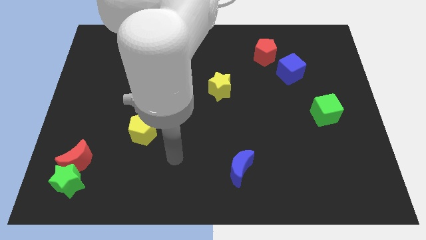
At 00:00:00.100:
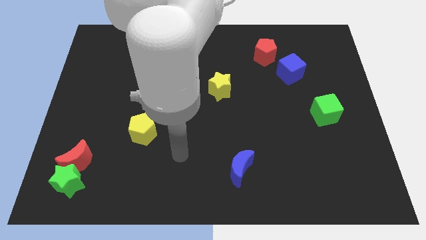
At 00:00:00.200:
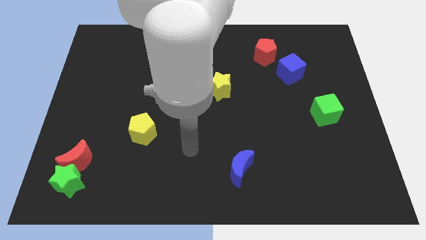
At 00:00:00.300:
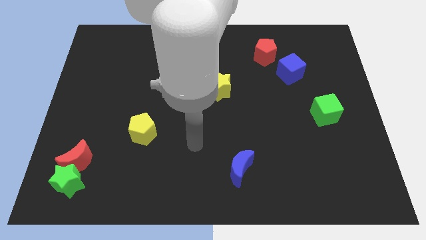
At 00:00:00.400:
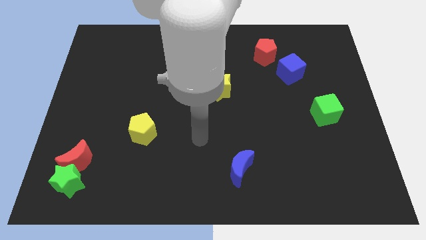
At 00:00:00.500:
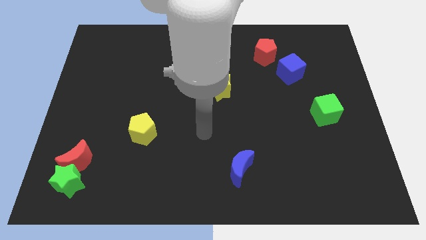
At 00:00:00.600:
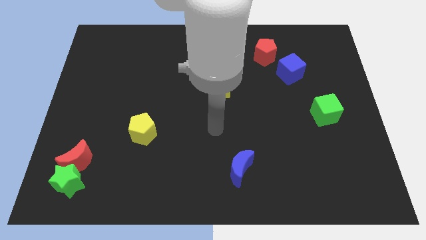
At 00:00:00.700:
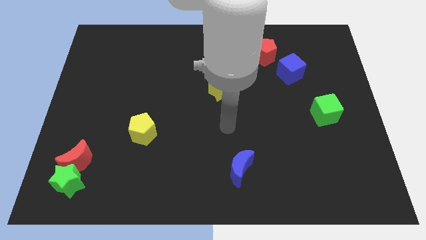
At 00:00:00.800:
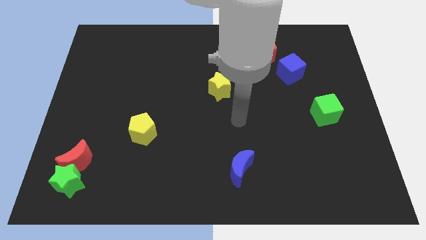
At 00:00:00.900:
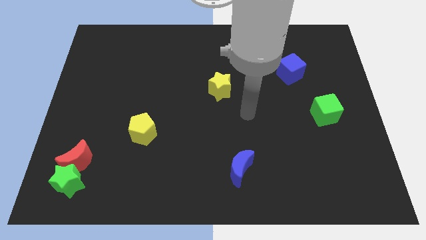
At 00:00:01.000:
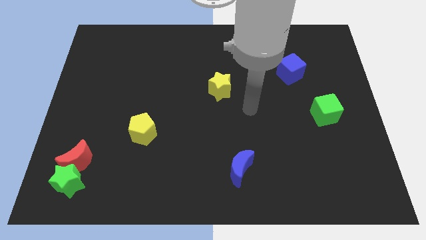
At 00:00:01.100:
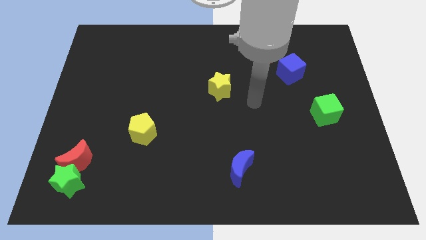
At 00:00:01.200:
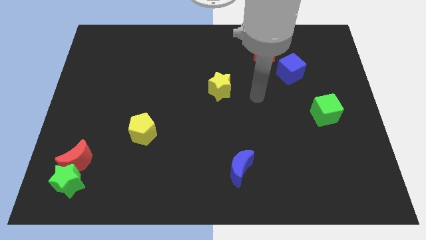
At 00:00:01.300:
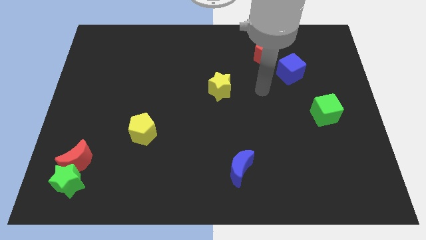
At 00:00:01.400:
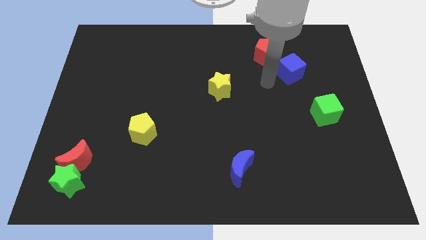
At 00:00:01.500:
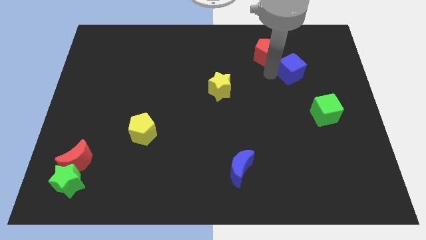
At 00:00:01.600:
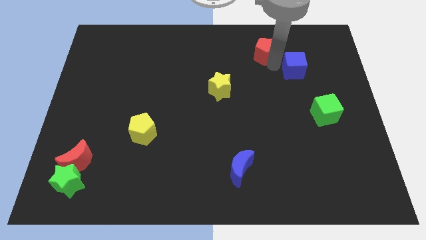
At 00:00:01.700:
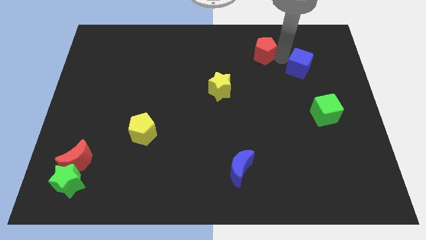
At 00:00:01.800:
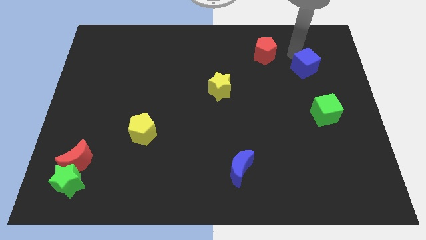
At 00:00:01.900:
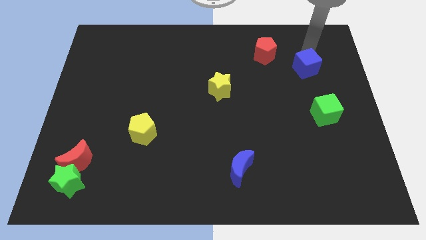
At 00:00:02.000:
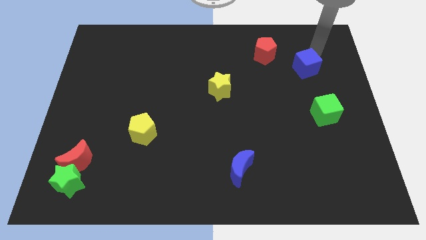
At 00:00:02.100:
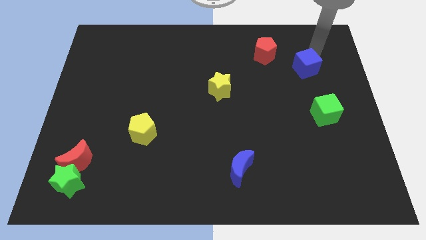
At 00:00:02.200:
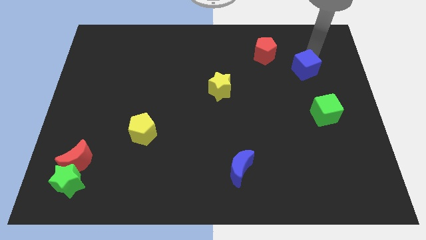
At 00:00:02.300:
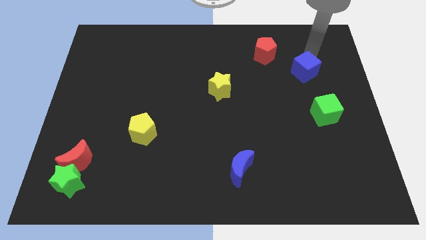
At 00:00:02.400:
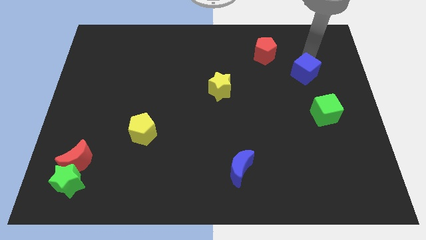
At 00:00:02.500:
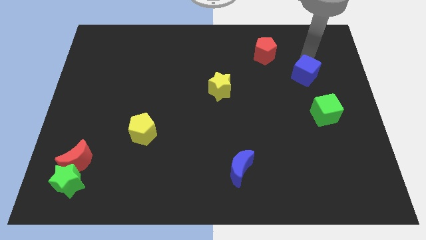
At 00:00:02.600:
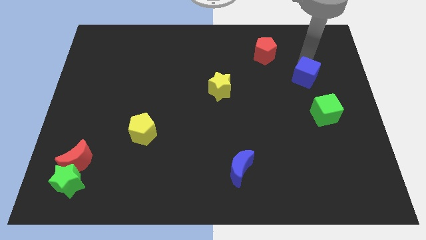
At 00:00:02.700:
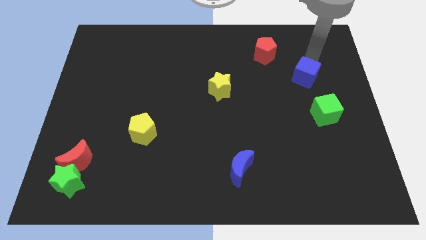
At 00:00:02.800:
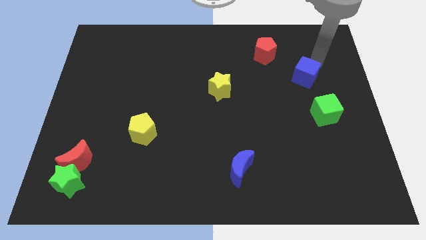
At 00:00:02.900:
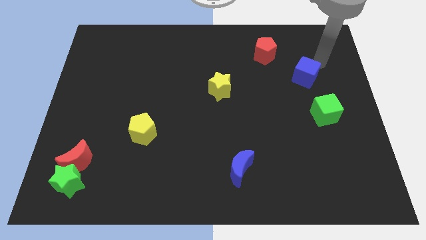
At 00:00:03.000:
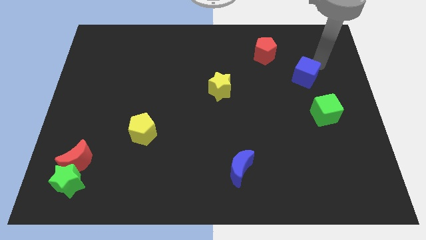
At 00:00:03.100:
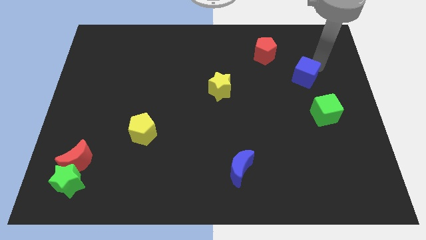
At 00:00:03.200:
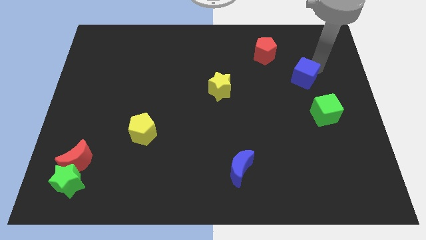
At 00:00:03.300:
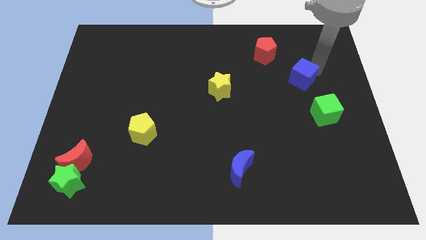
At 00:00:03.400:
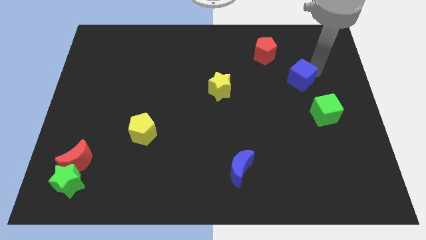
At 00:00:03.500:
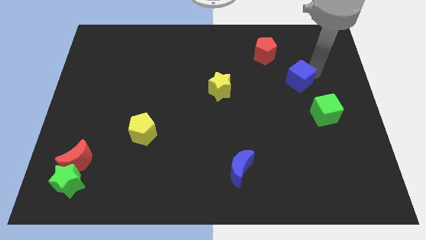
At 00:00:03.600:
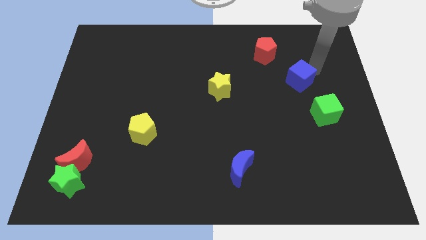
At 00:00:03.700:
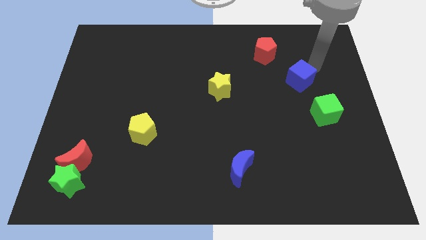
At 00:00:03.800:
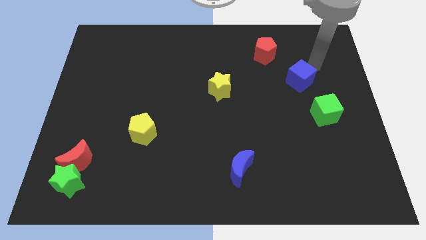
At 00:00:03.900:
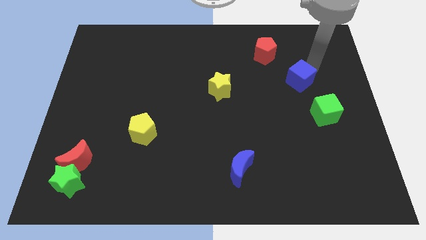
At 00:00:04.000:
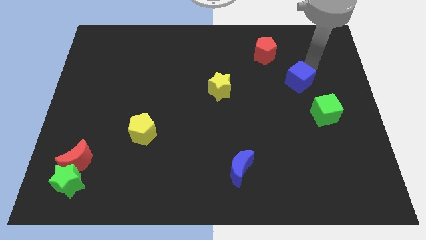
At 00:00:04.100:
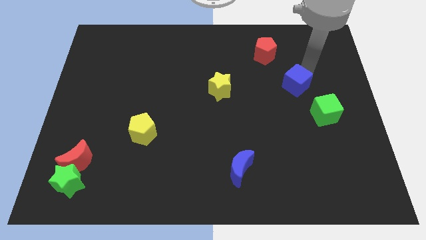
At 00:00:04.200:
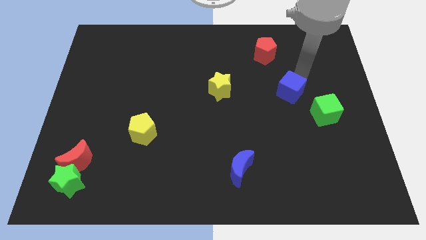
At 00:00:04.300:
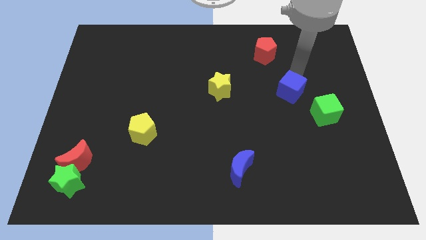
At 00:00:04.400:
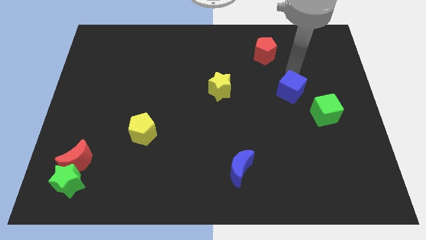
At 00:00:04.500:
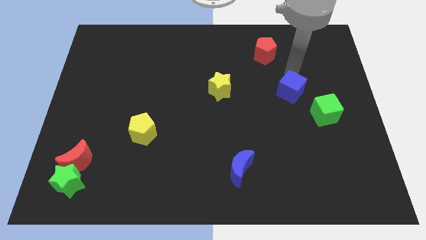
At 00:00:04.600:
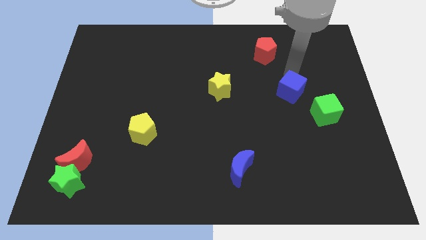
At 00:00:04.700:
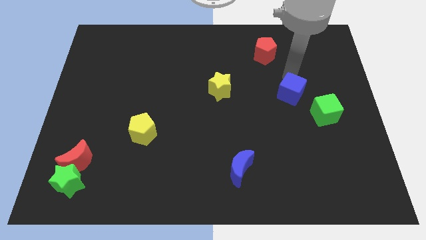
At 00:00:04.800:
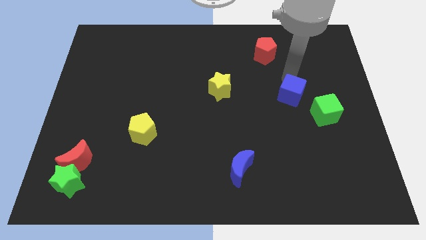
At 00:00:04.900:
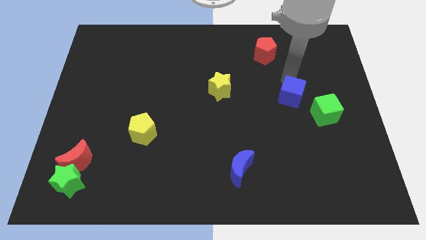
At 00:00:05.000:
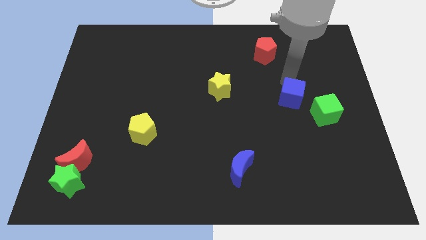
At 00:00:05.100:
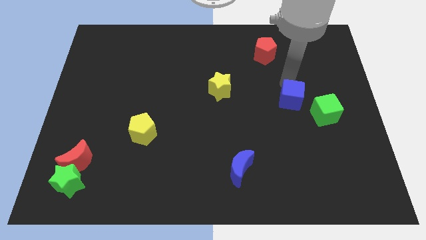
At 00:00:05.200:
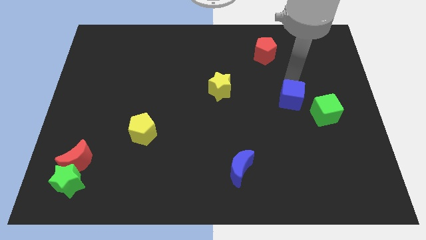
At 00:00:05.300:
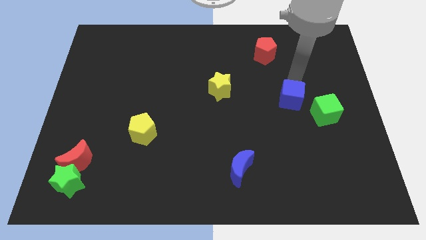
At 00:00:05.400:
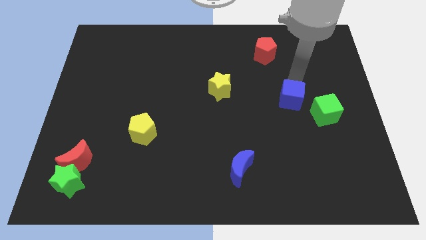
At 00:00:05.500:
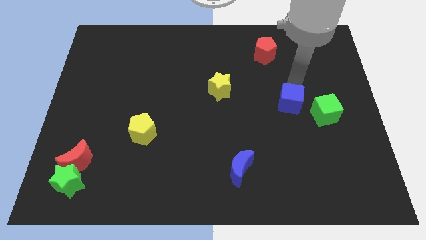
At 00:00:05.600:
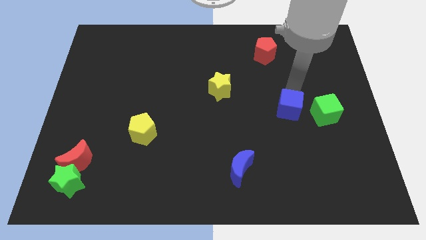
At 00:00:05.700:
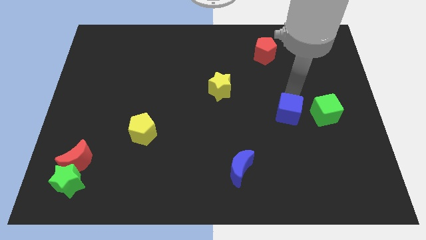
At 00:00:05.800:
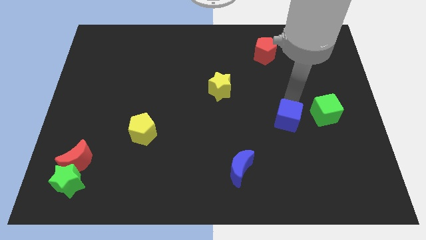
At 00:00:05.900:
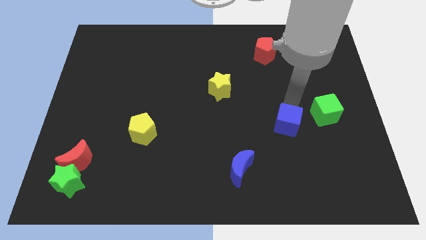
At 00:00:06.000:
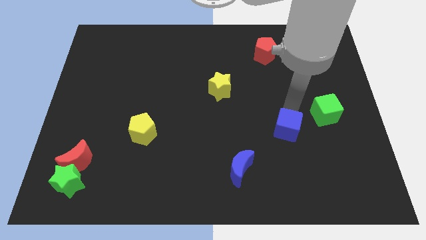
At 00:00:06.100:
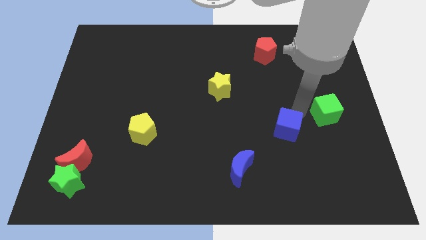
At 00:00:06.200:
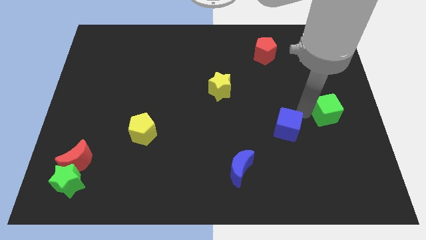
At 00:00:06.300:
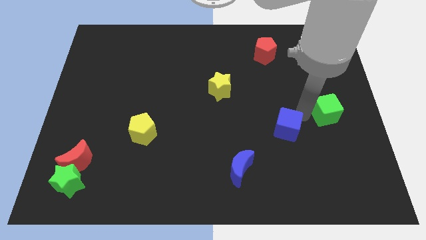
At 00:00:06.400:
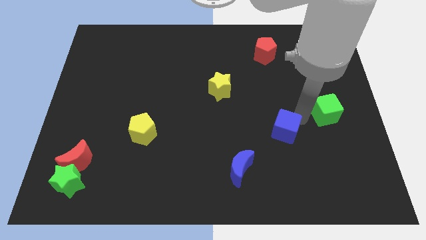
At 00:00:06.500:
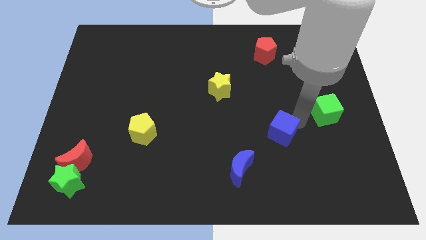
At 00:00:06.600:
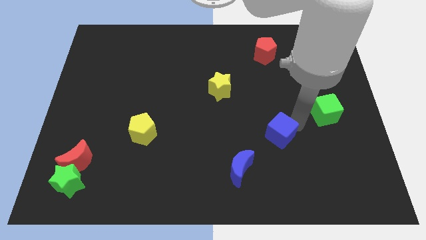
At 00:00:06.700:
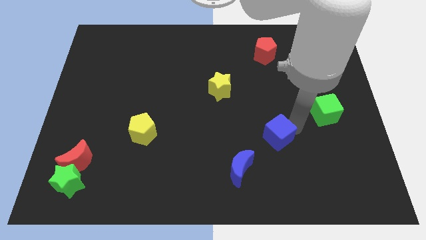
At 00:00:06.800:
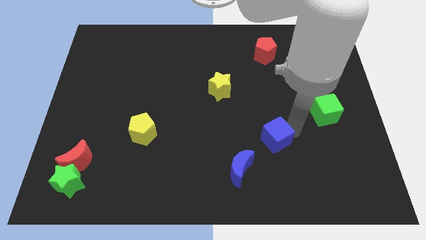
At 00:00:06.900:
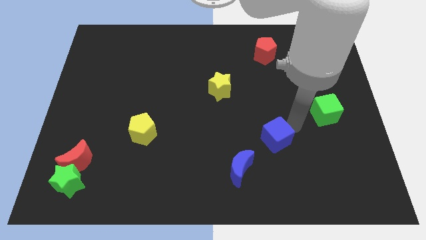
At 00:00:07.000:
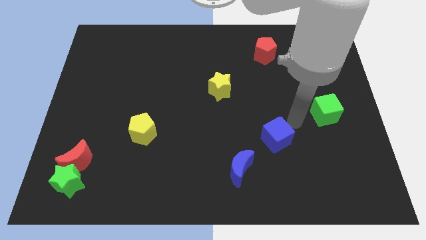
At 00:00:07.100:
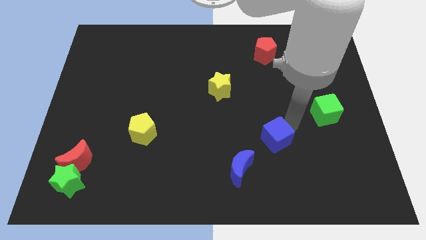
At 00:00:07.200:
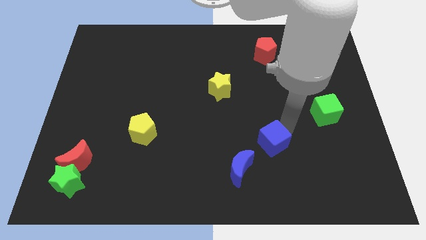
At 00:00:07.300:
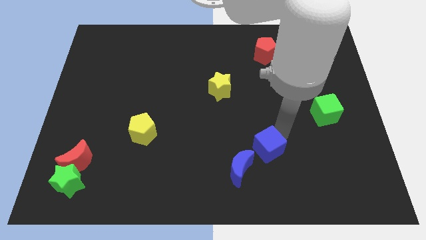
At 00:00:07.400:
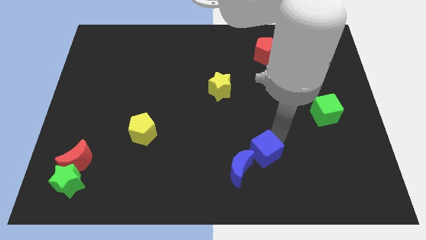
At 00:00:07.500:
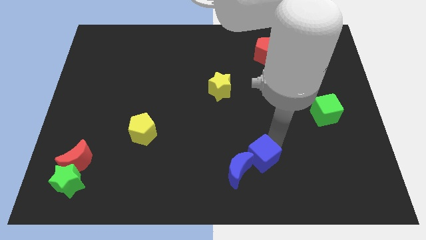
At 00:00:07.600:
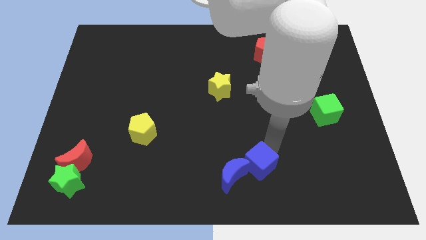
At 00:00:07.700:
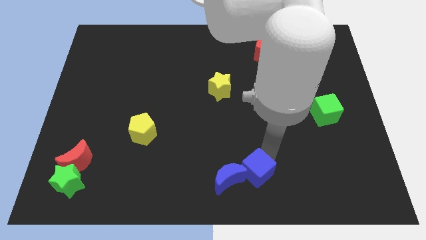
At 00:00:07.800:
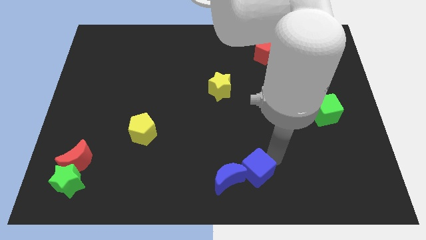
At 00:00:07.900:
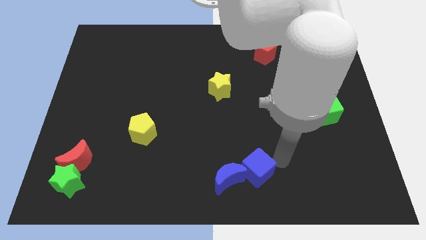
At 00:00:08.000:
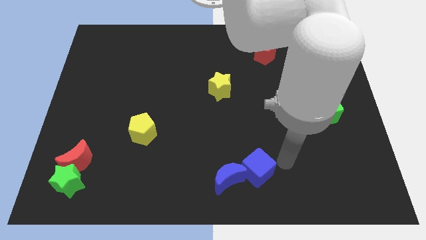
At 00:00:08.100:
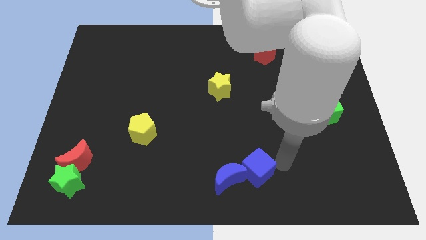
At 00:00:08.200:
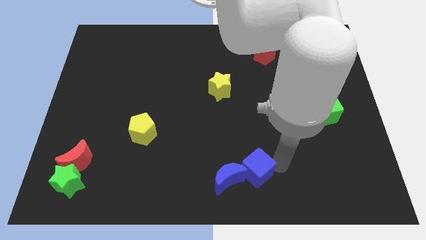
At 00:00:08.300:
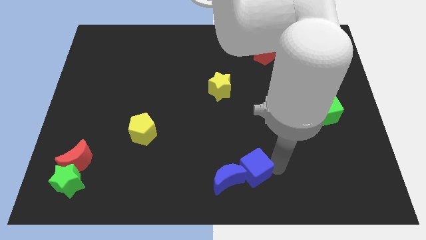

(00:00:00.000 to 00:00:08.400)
slide the blue cube towards the blue moon
